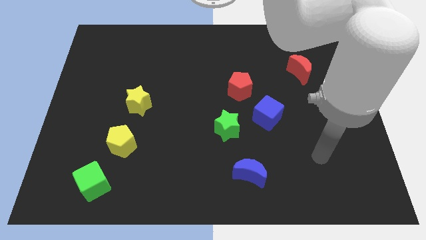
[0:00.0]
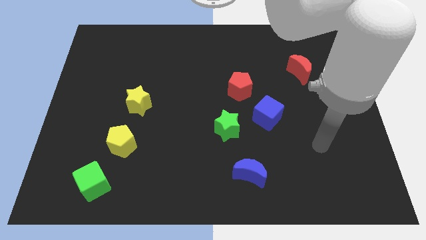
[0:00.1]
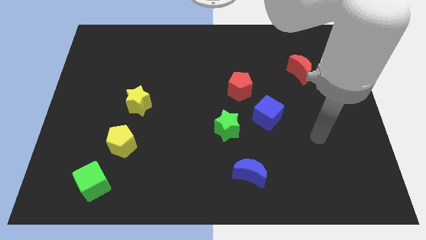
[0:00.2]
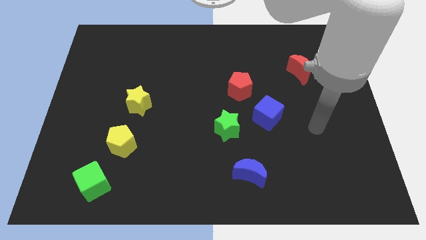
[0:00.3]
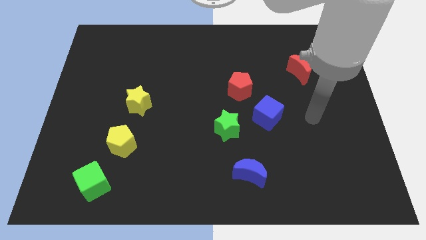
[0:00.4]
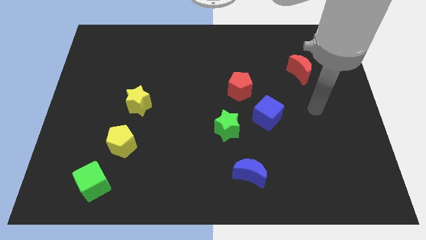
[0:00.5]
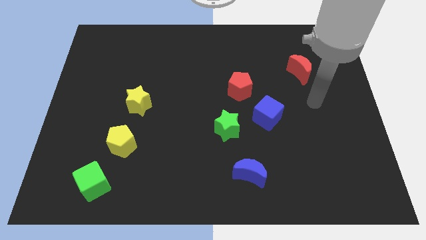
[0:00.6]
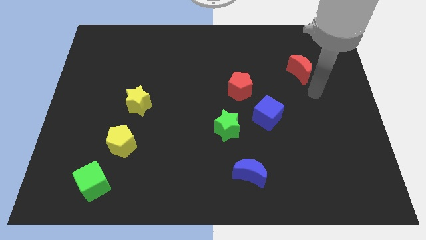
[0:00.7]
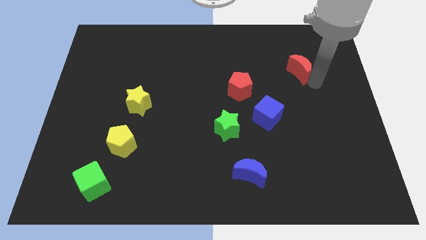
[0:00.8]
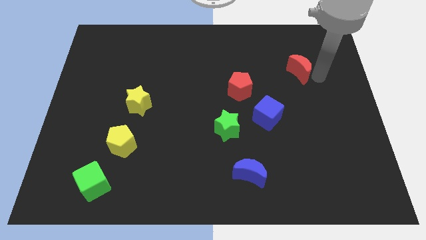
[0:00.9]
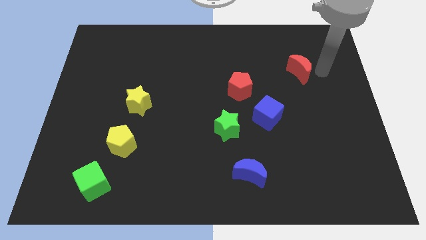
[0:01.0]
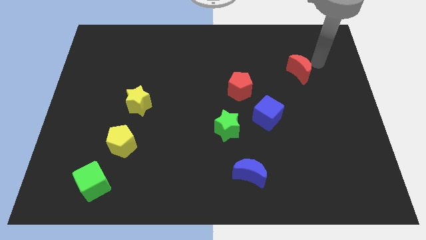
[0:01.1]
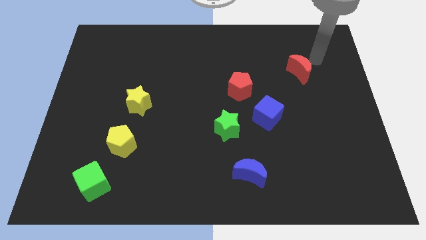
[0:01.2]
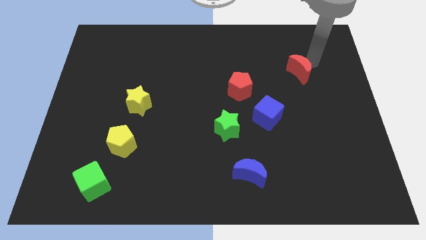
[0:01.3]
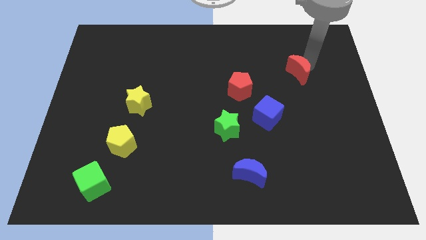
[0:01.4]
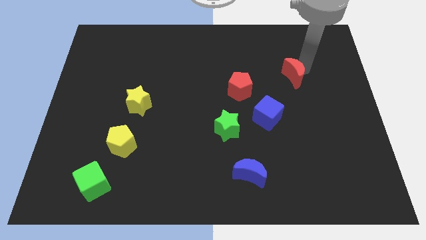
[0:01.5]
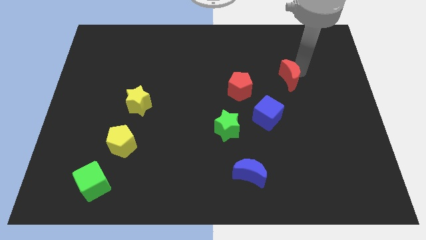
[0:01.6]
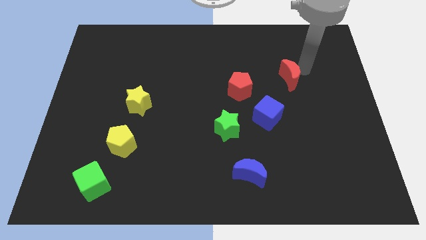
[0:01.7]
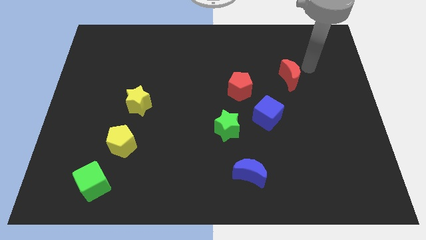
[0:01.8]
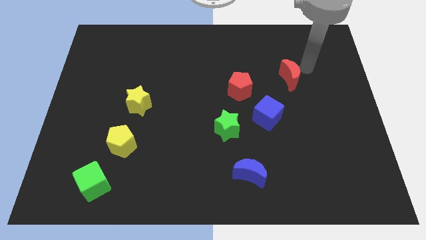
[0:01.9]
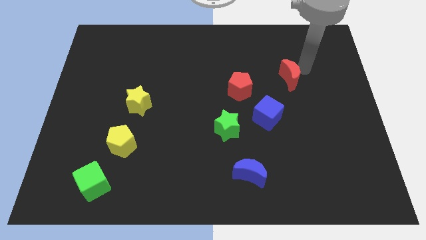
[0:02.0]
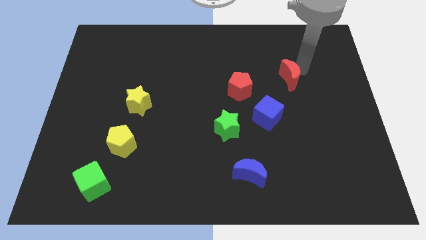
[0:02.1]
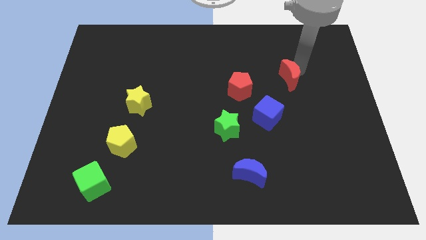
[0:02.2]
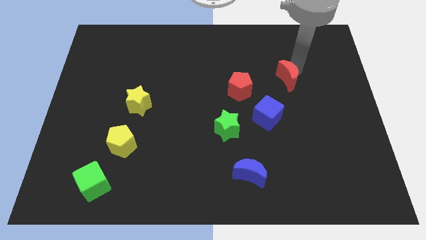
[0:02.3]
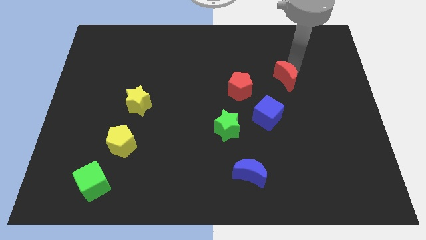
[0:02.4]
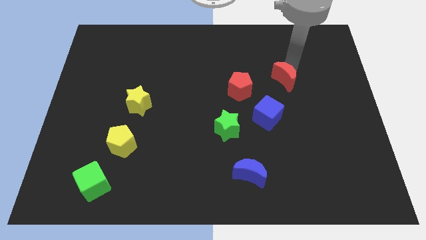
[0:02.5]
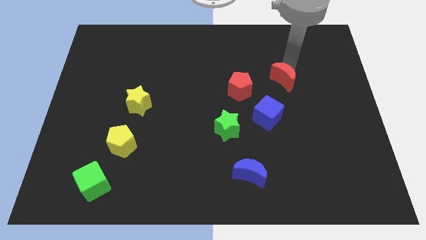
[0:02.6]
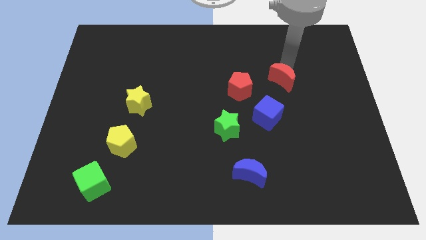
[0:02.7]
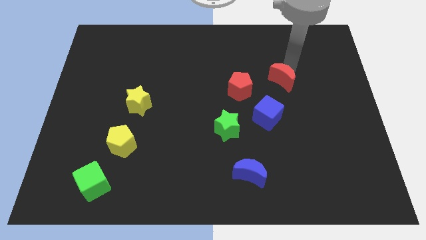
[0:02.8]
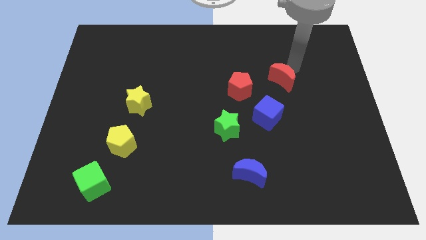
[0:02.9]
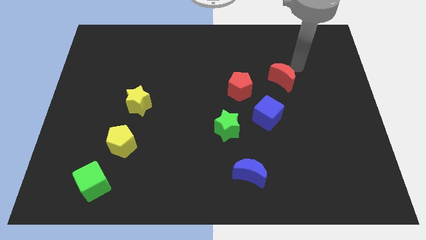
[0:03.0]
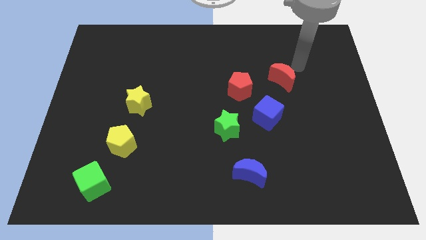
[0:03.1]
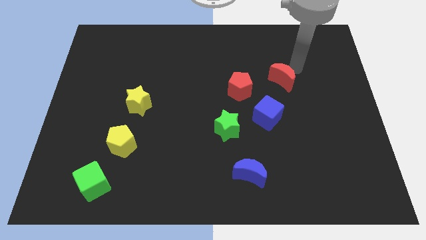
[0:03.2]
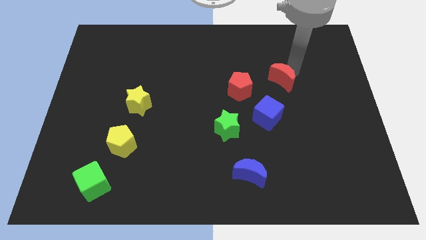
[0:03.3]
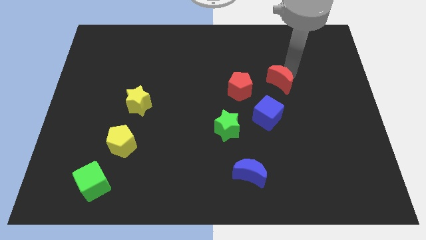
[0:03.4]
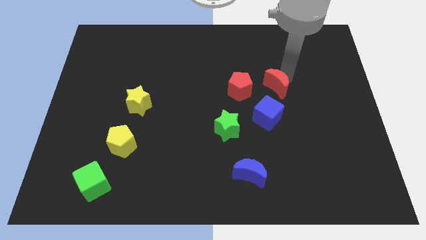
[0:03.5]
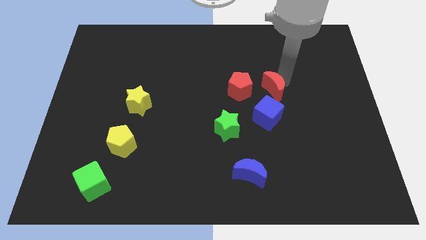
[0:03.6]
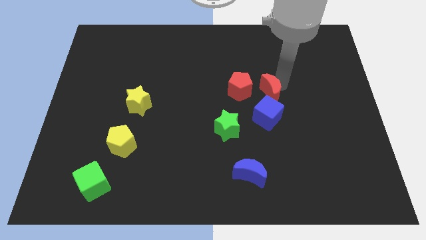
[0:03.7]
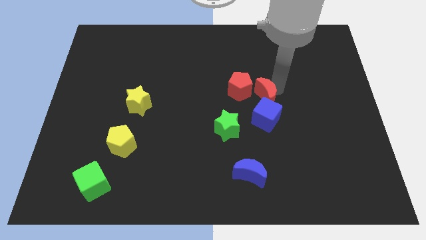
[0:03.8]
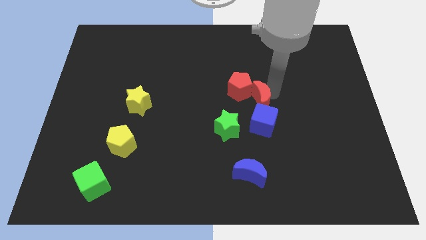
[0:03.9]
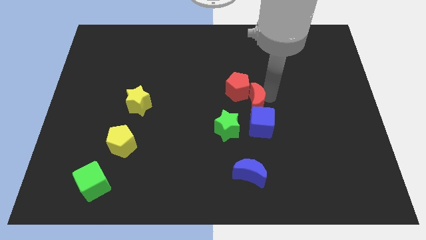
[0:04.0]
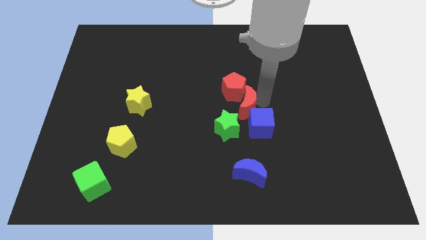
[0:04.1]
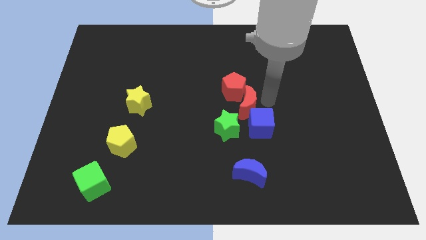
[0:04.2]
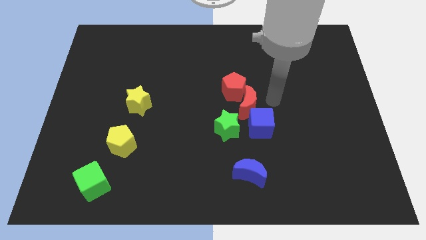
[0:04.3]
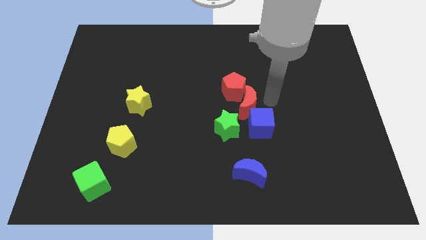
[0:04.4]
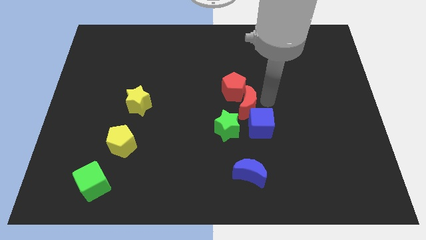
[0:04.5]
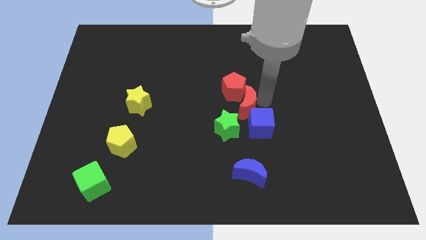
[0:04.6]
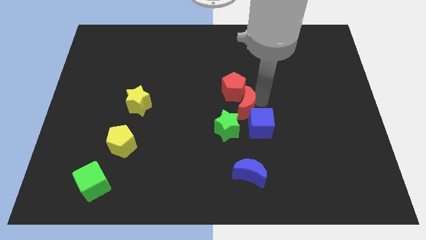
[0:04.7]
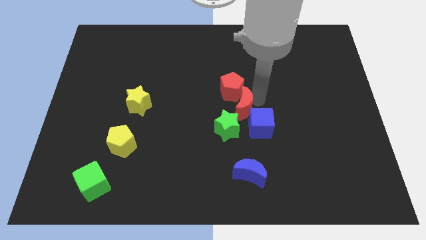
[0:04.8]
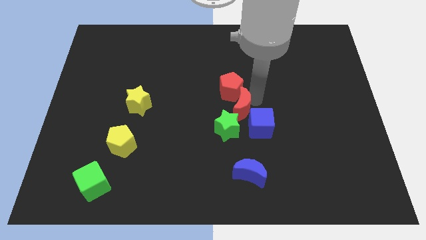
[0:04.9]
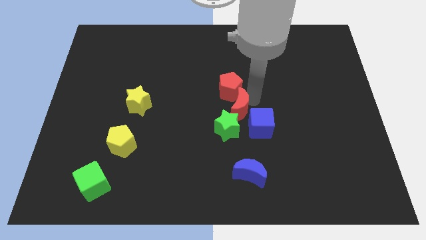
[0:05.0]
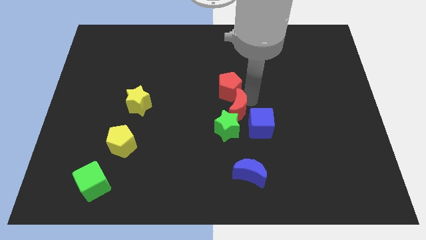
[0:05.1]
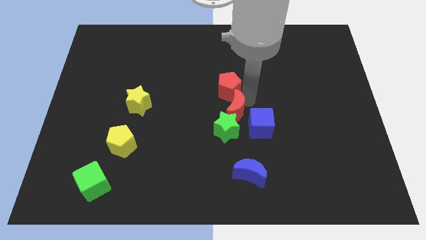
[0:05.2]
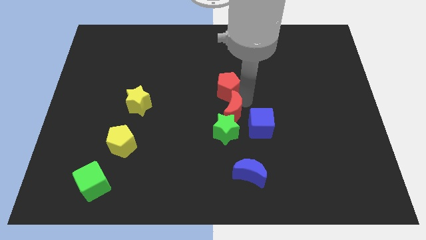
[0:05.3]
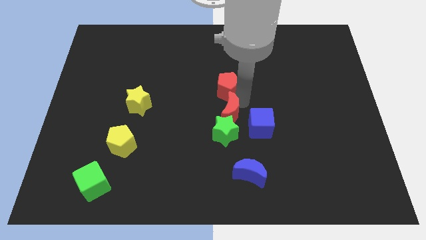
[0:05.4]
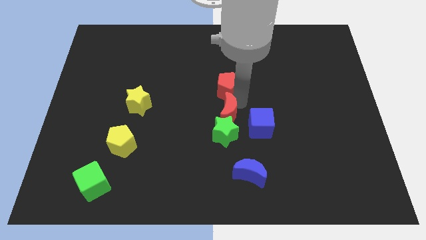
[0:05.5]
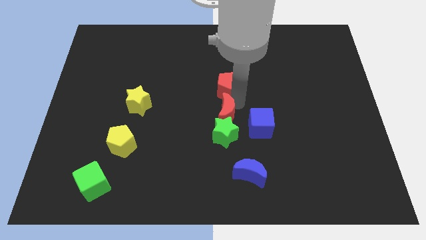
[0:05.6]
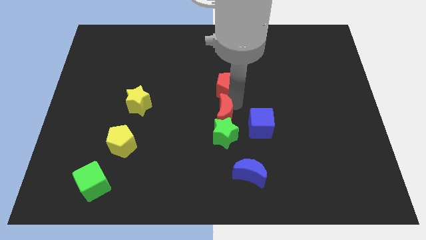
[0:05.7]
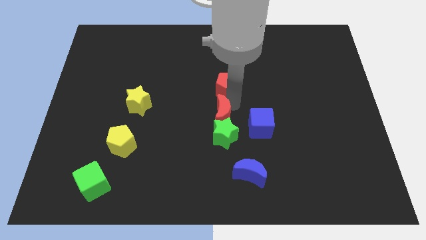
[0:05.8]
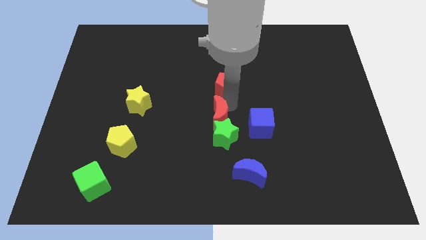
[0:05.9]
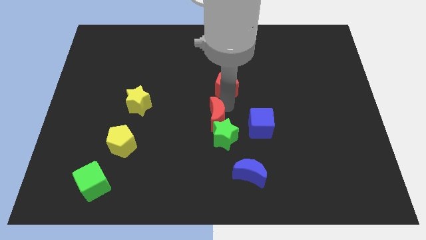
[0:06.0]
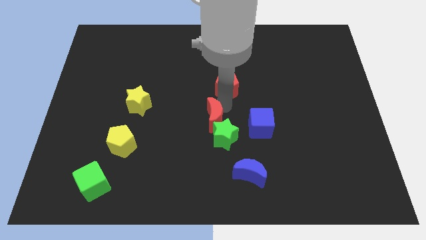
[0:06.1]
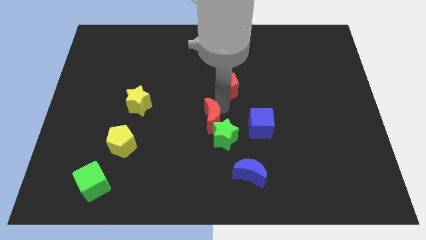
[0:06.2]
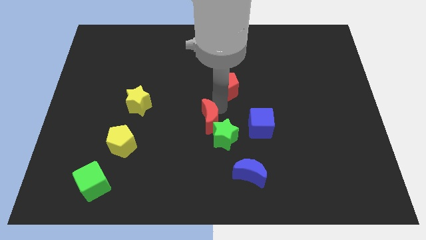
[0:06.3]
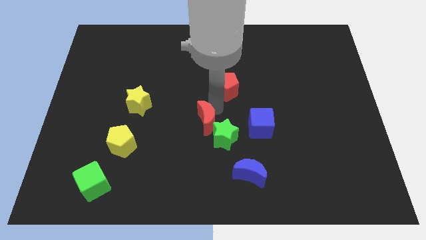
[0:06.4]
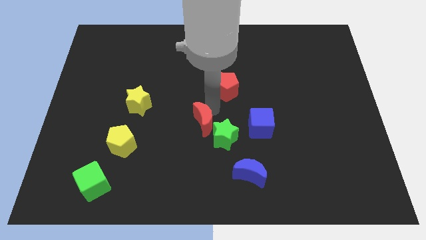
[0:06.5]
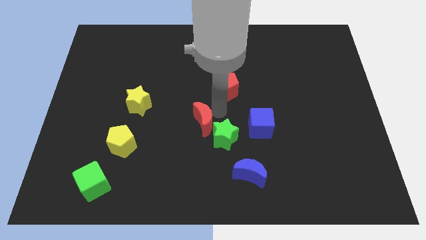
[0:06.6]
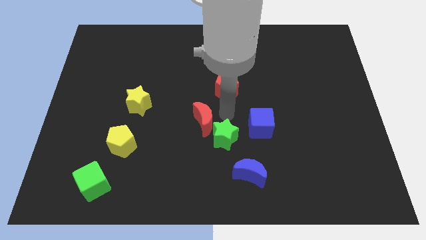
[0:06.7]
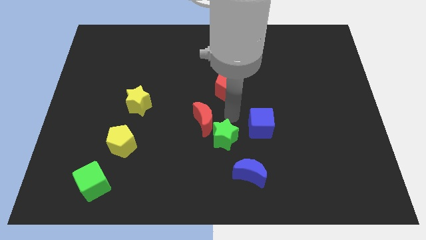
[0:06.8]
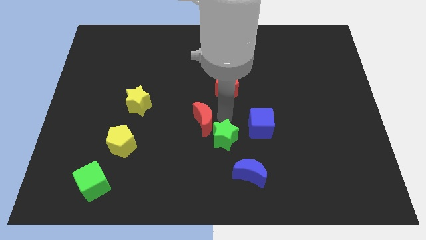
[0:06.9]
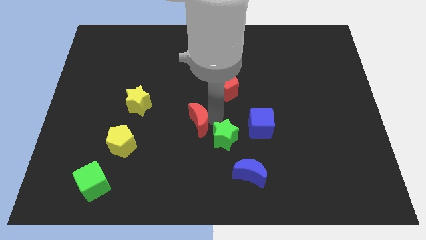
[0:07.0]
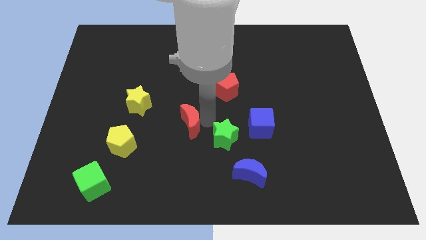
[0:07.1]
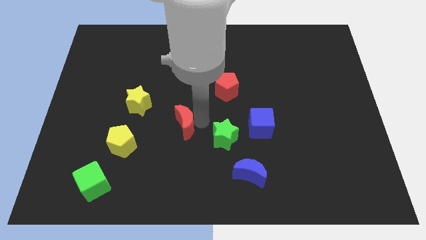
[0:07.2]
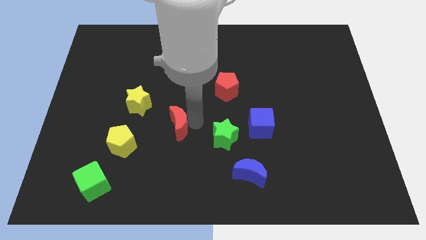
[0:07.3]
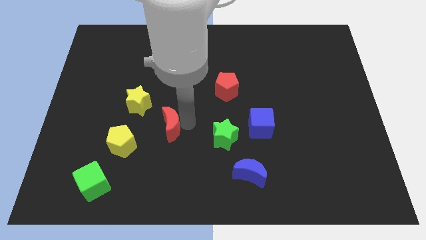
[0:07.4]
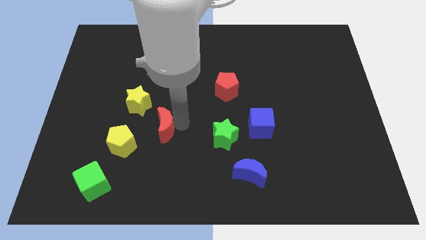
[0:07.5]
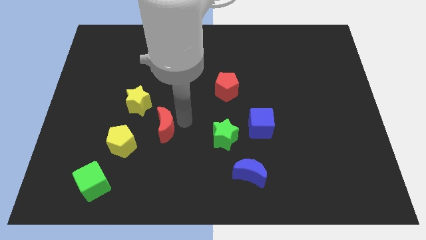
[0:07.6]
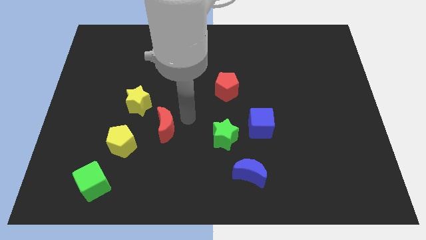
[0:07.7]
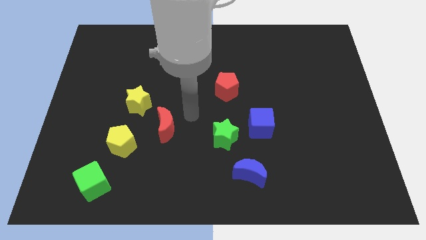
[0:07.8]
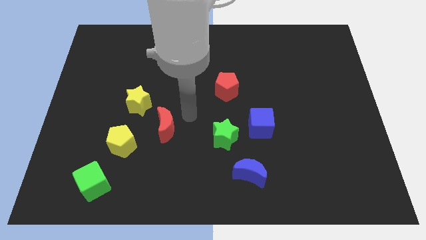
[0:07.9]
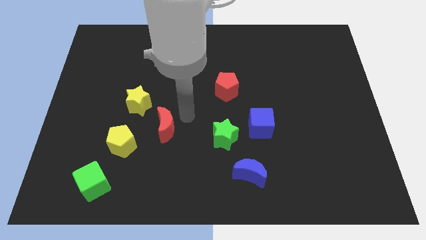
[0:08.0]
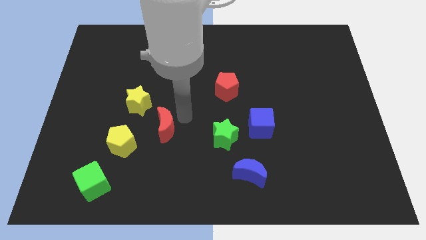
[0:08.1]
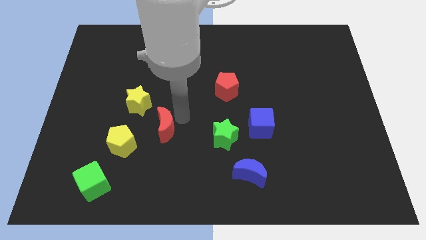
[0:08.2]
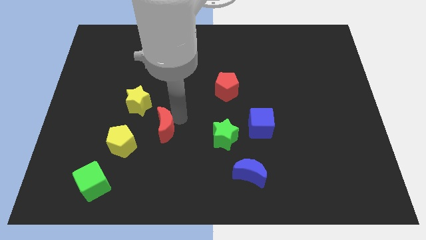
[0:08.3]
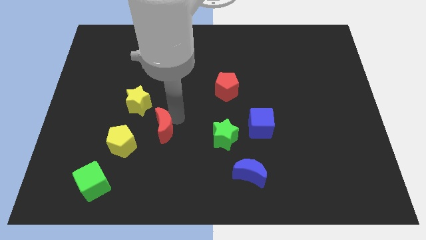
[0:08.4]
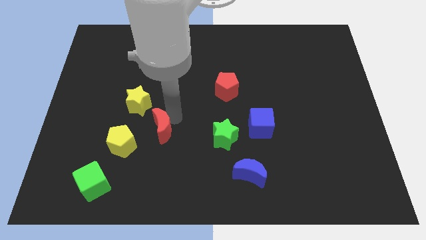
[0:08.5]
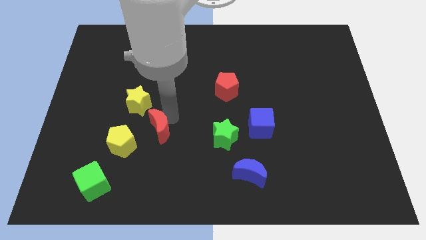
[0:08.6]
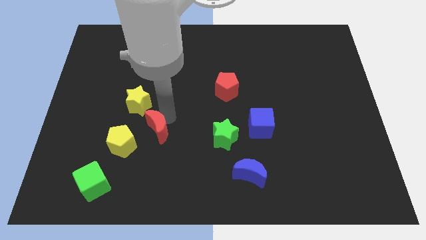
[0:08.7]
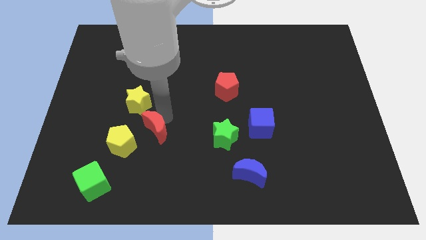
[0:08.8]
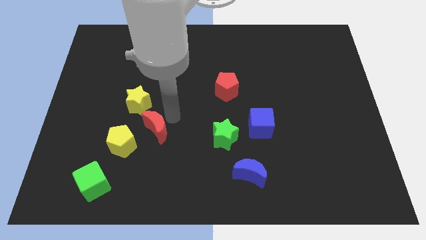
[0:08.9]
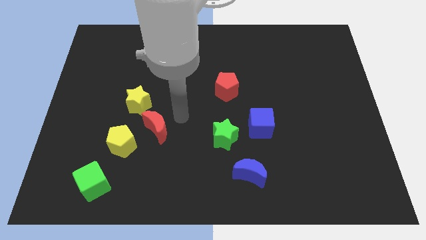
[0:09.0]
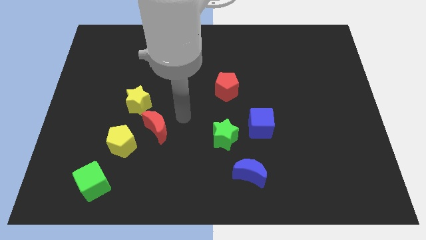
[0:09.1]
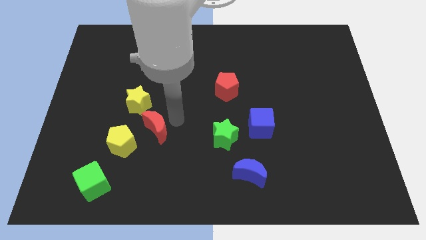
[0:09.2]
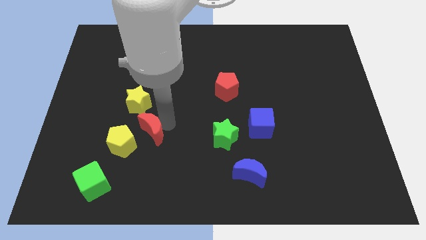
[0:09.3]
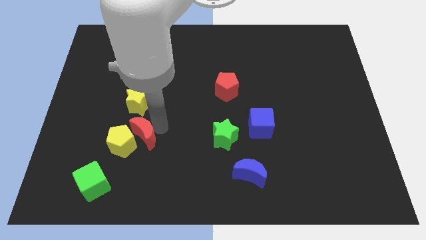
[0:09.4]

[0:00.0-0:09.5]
move the red moon to the yellow pentagon
